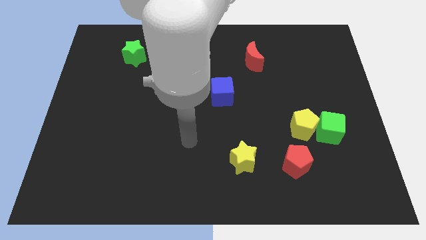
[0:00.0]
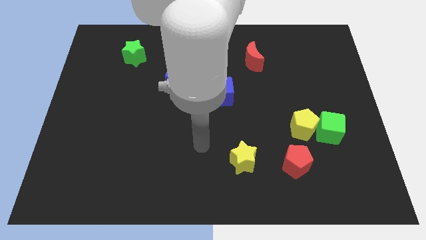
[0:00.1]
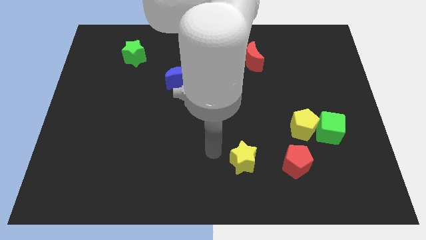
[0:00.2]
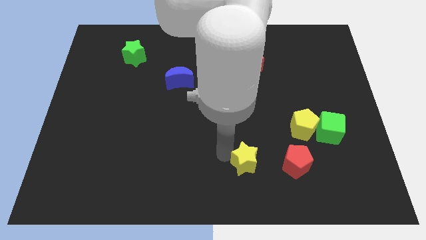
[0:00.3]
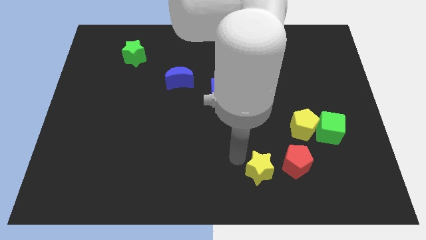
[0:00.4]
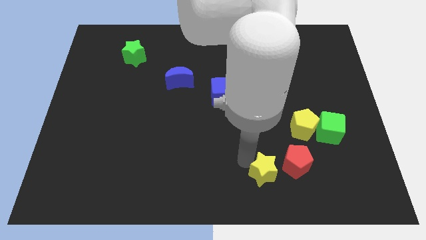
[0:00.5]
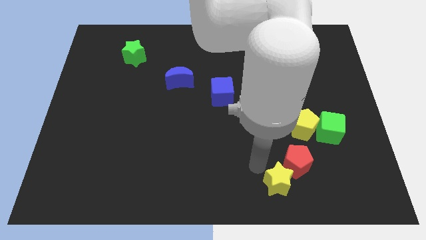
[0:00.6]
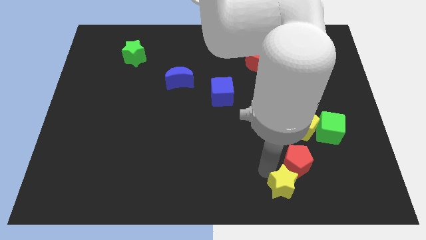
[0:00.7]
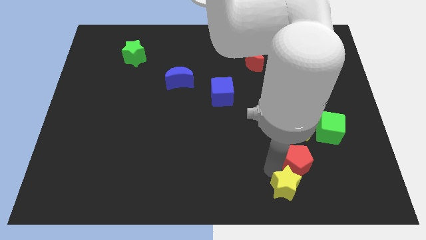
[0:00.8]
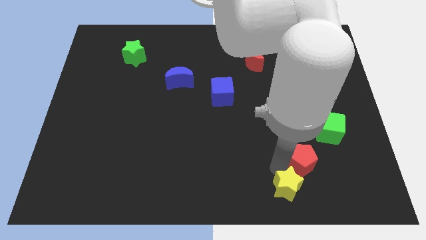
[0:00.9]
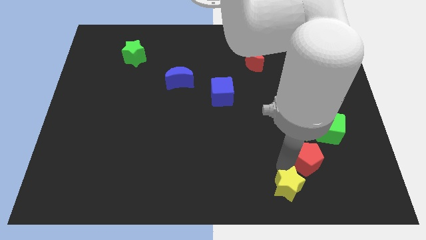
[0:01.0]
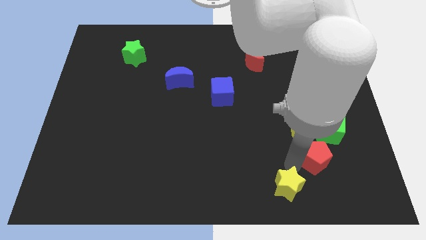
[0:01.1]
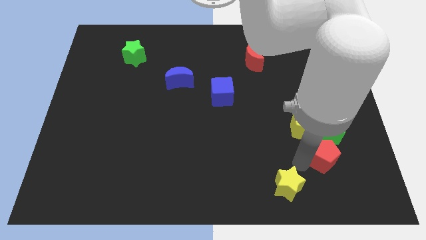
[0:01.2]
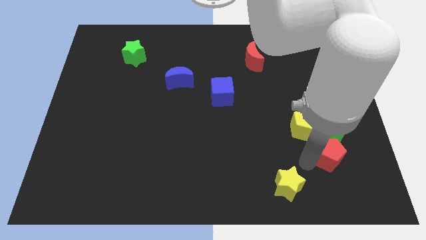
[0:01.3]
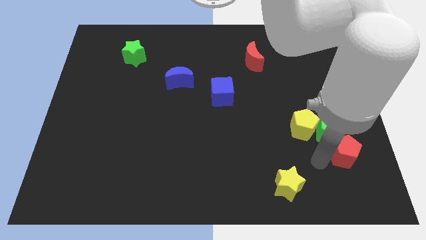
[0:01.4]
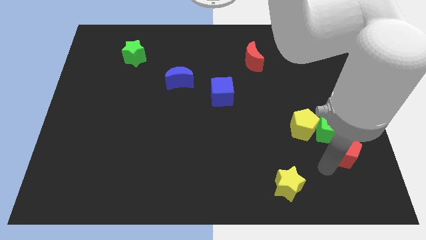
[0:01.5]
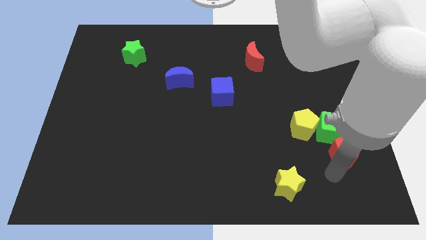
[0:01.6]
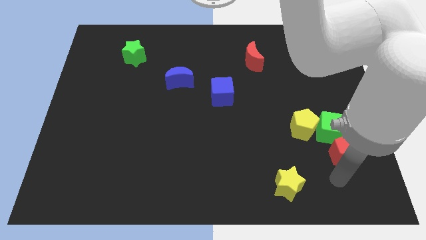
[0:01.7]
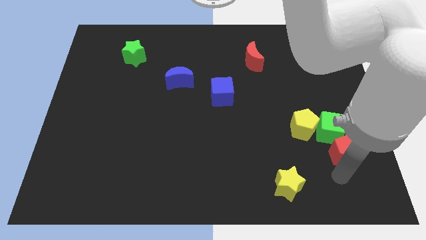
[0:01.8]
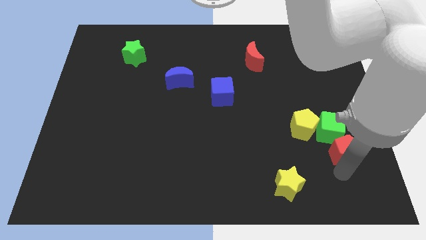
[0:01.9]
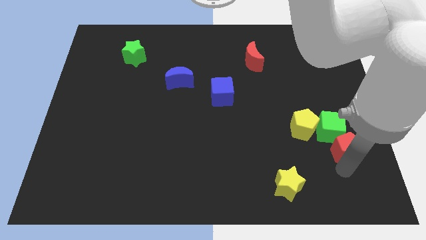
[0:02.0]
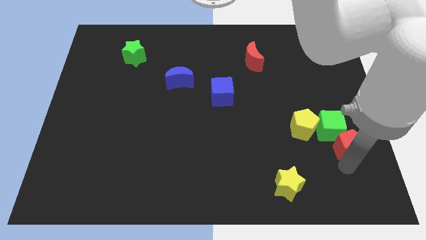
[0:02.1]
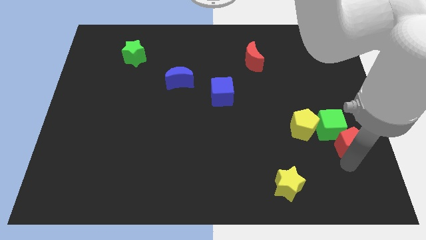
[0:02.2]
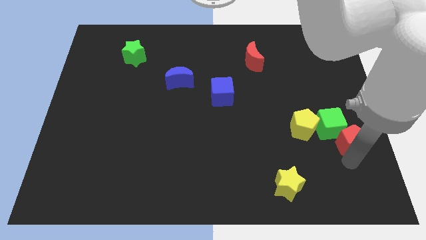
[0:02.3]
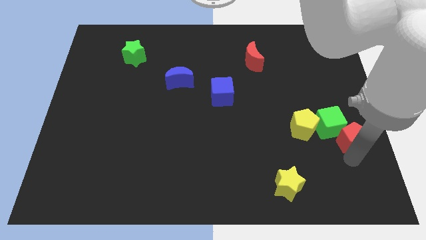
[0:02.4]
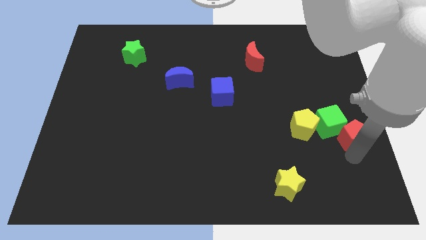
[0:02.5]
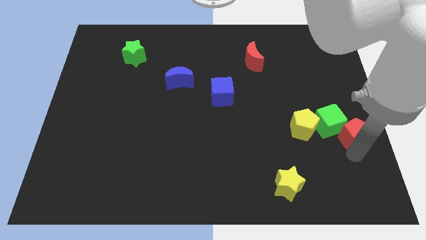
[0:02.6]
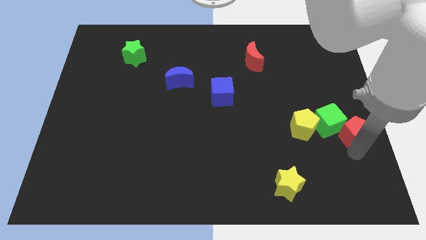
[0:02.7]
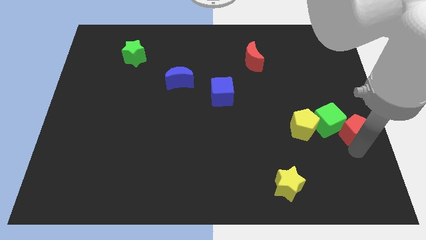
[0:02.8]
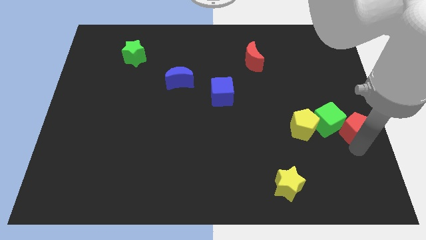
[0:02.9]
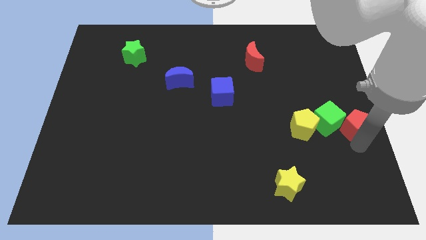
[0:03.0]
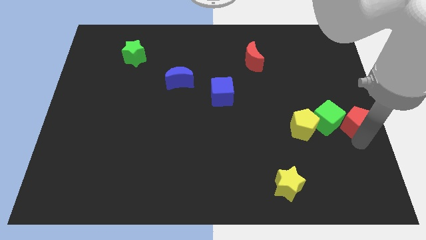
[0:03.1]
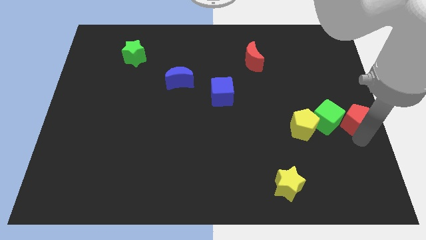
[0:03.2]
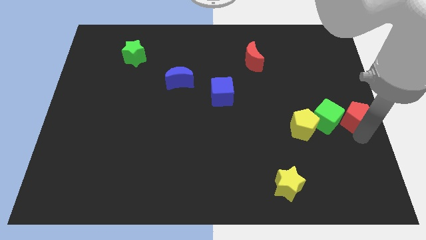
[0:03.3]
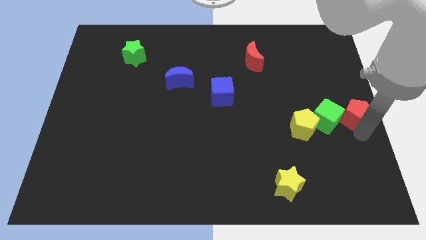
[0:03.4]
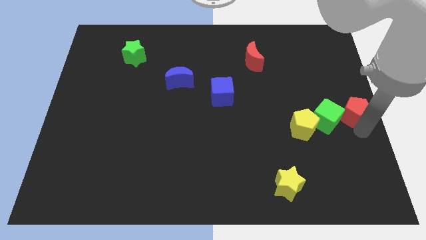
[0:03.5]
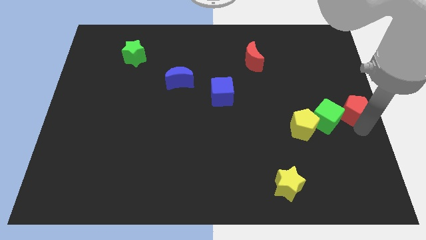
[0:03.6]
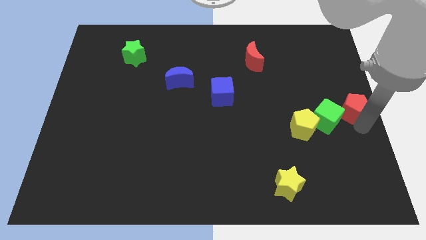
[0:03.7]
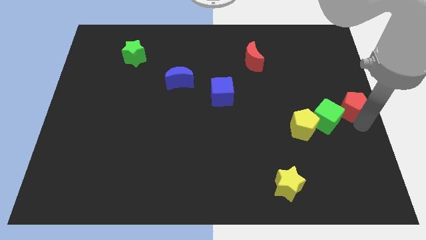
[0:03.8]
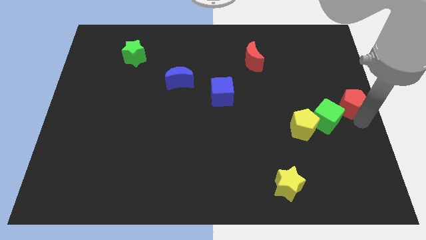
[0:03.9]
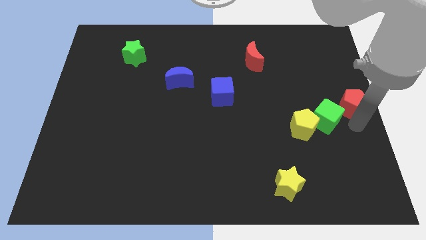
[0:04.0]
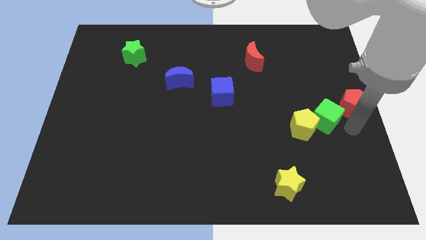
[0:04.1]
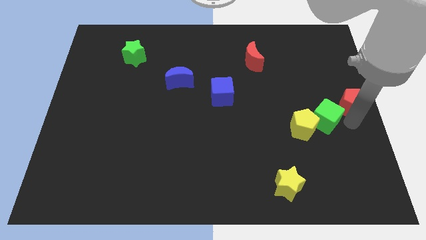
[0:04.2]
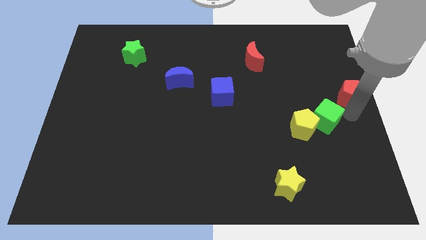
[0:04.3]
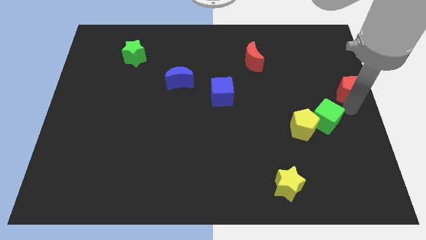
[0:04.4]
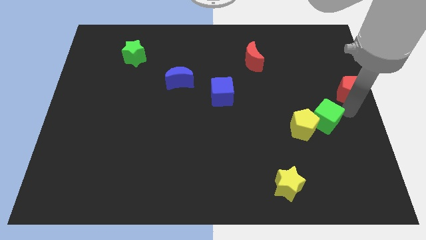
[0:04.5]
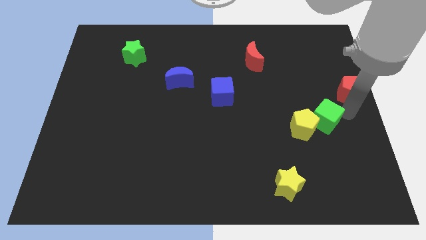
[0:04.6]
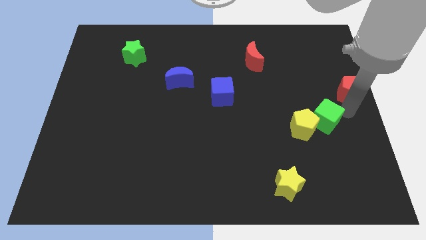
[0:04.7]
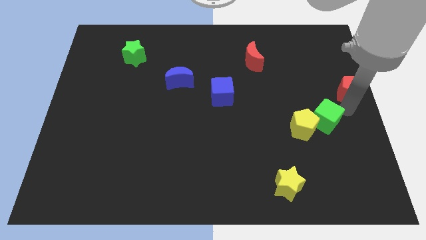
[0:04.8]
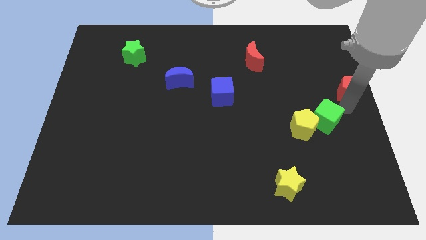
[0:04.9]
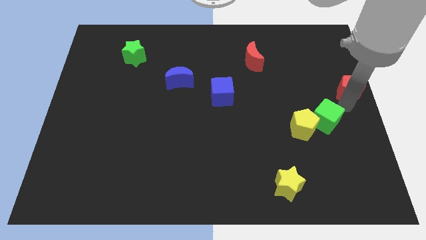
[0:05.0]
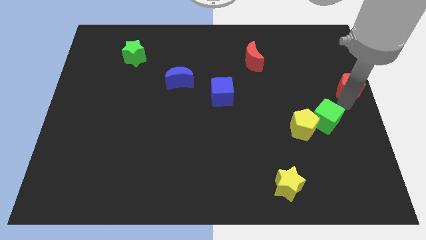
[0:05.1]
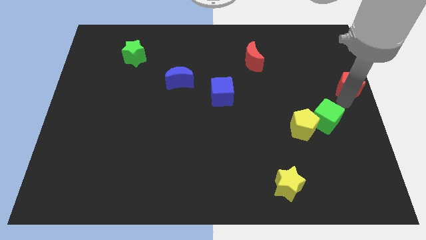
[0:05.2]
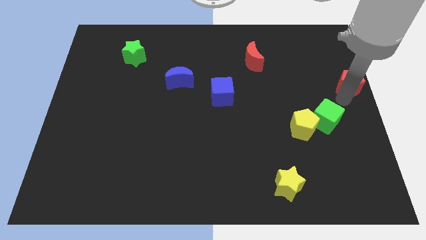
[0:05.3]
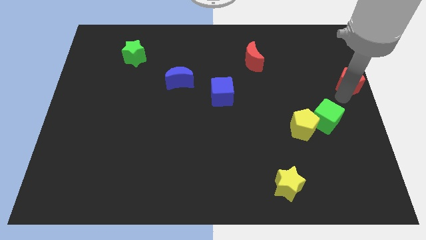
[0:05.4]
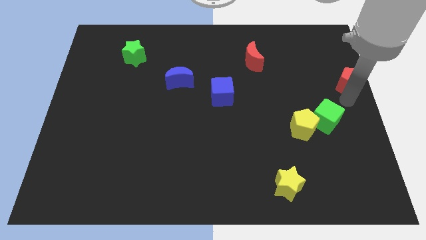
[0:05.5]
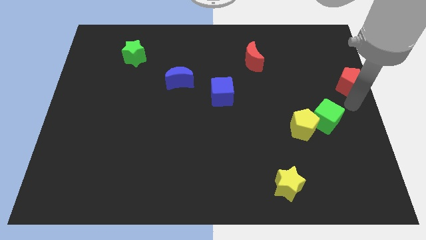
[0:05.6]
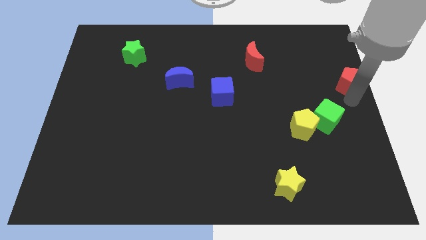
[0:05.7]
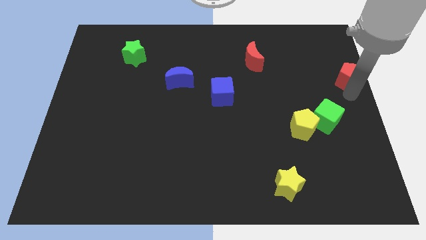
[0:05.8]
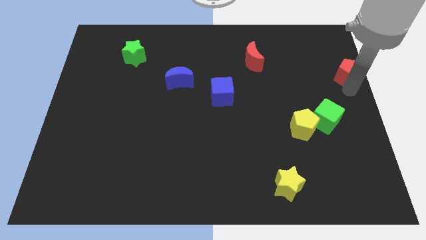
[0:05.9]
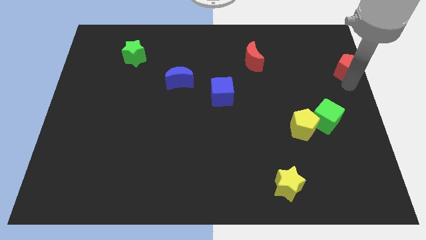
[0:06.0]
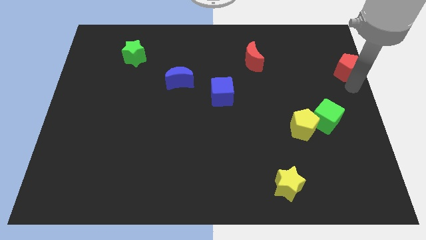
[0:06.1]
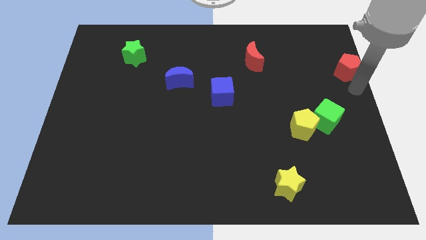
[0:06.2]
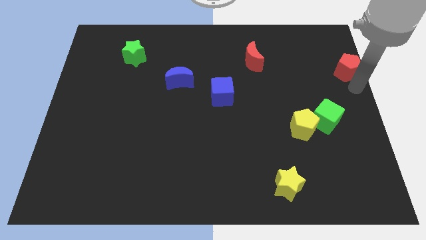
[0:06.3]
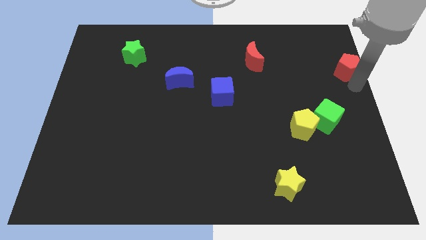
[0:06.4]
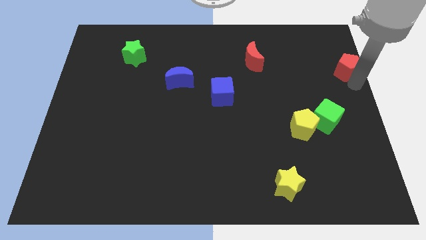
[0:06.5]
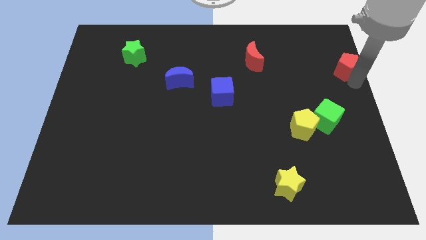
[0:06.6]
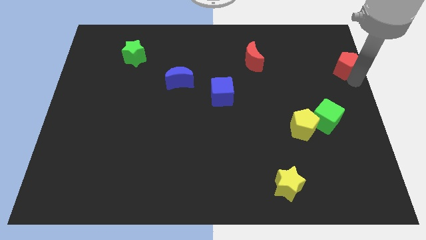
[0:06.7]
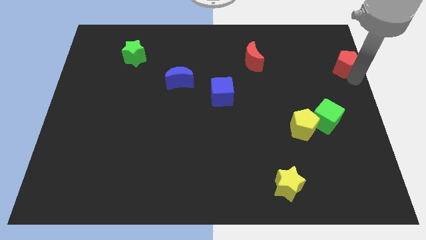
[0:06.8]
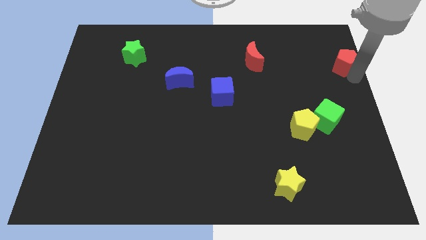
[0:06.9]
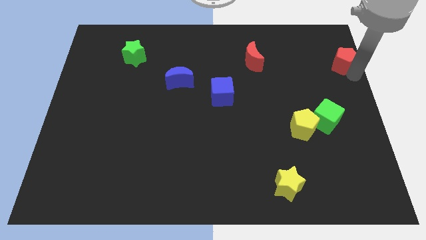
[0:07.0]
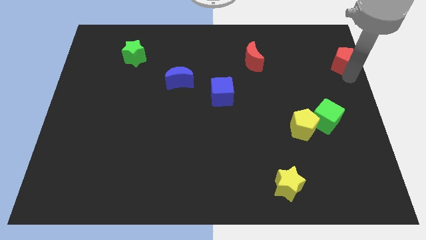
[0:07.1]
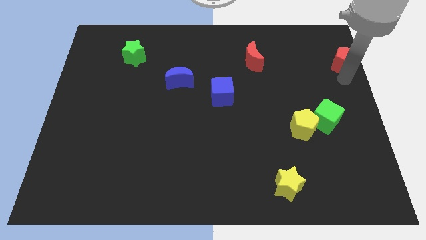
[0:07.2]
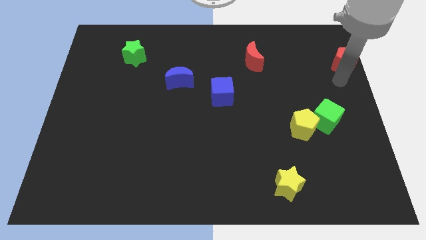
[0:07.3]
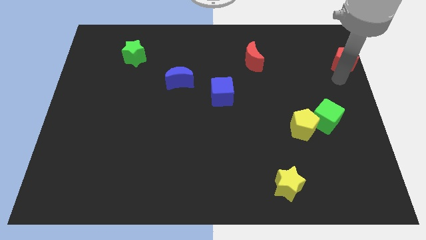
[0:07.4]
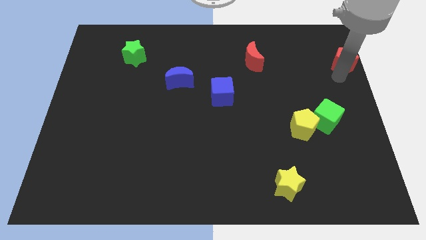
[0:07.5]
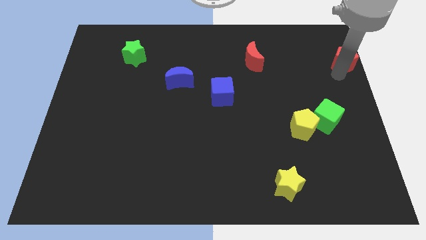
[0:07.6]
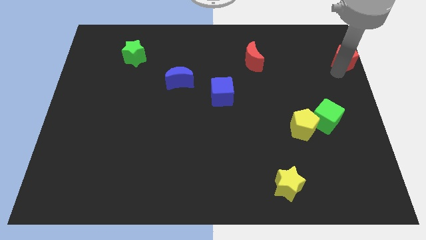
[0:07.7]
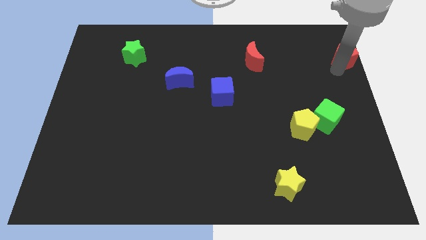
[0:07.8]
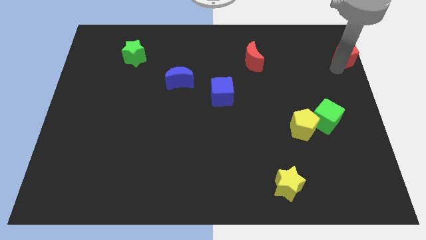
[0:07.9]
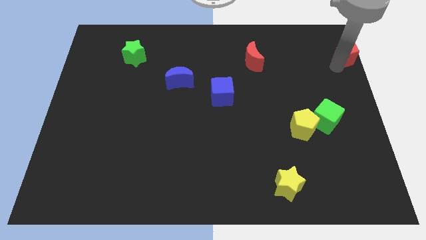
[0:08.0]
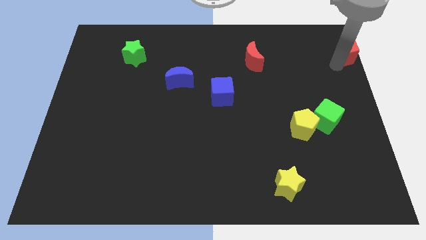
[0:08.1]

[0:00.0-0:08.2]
put the red pentagon to the upper right corner
